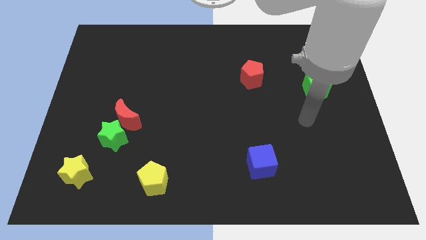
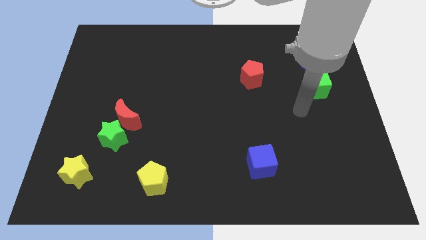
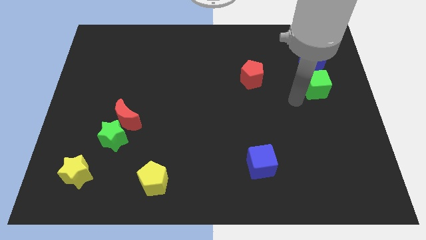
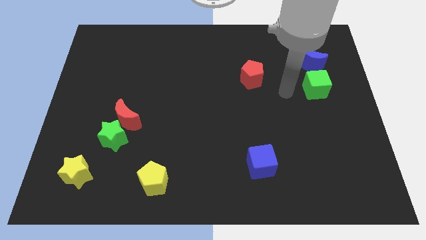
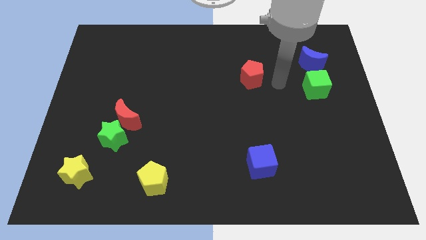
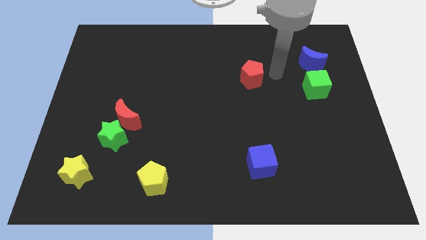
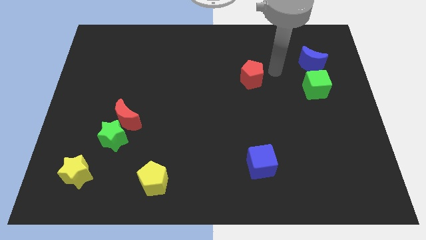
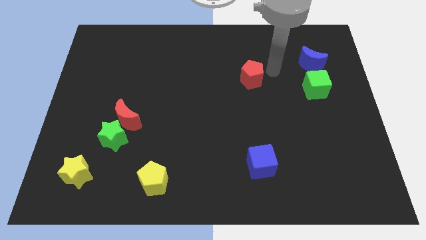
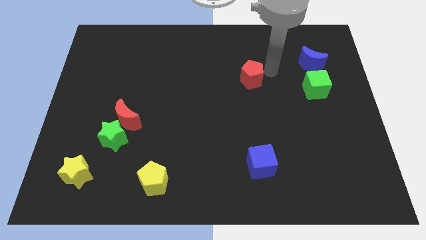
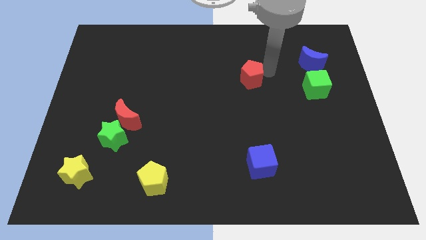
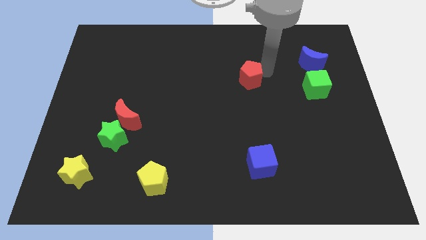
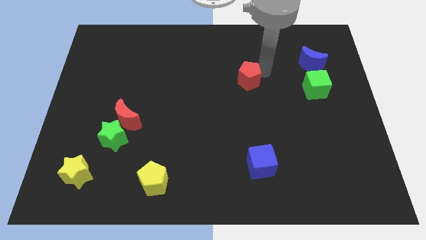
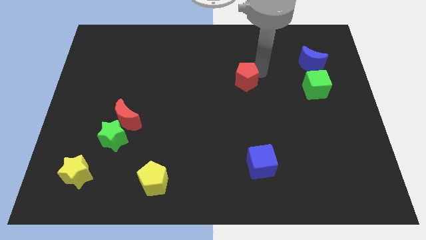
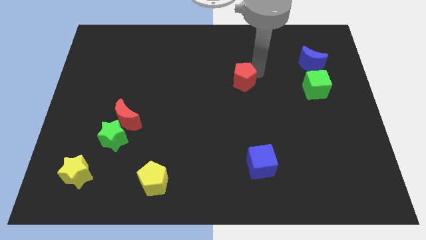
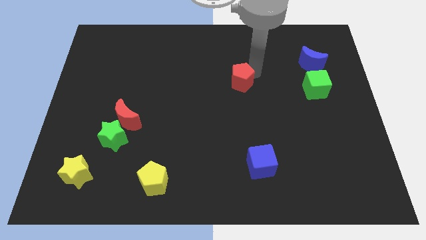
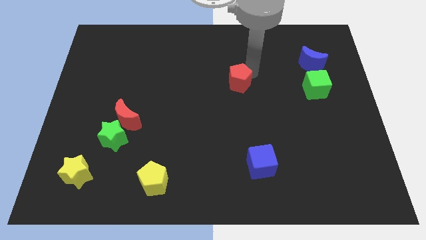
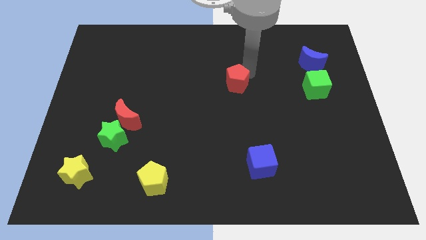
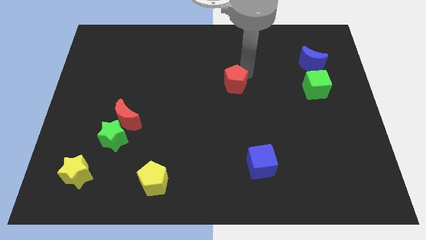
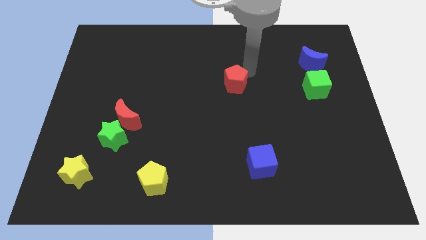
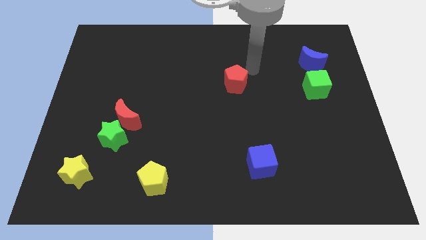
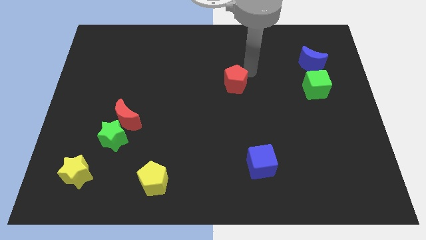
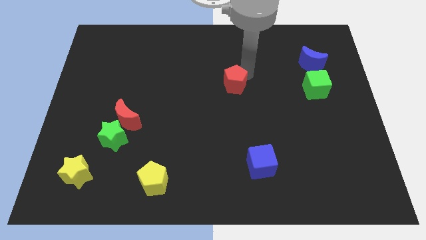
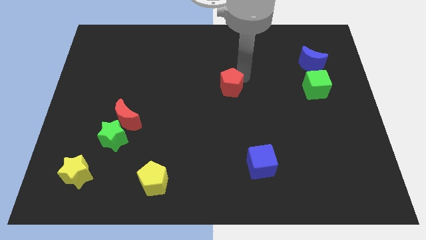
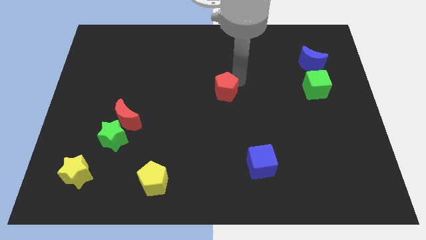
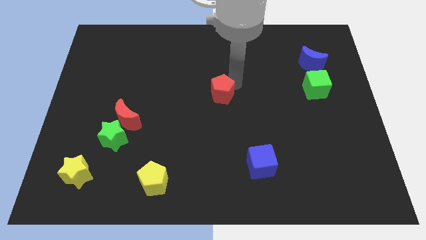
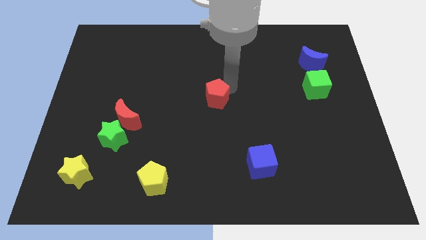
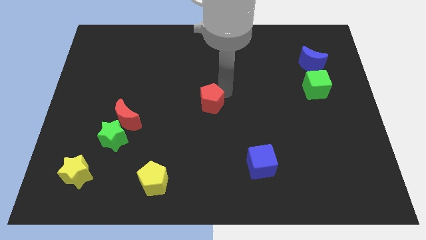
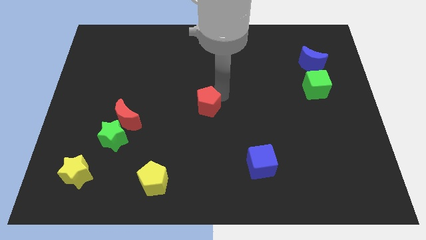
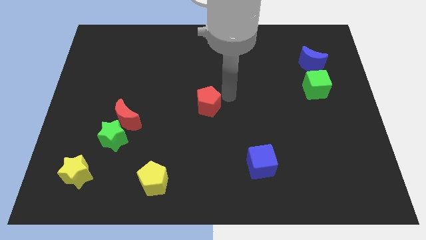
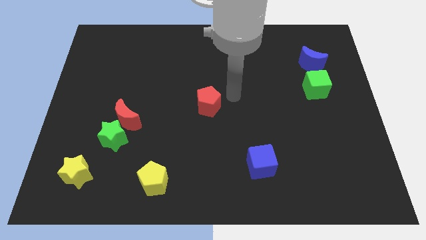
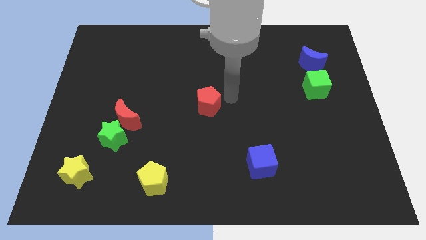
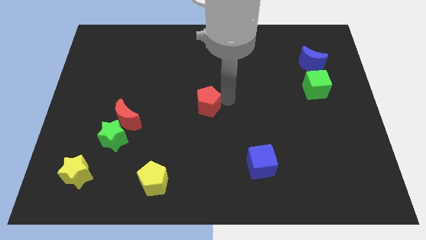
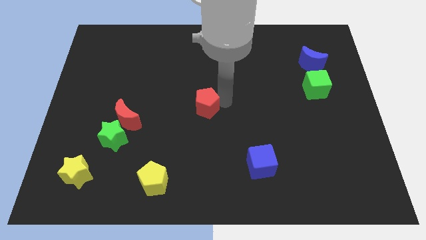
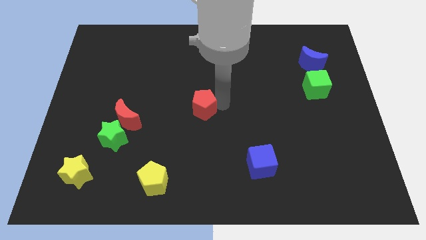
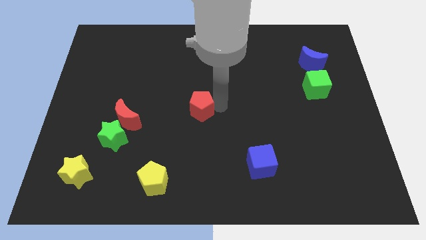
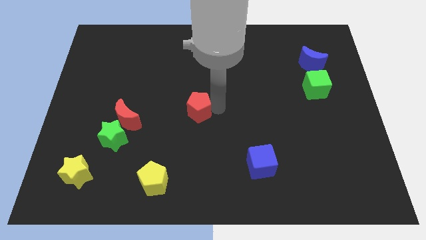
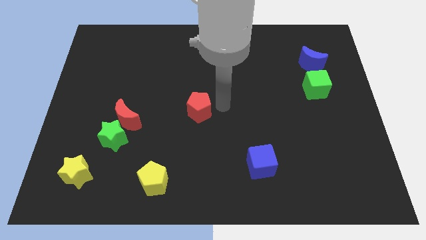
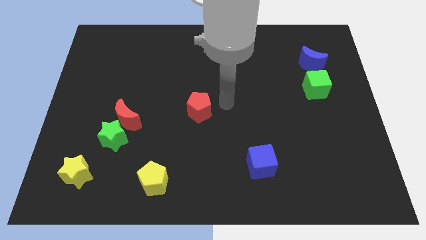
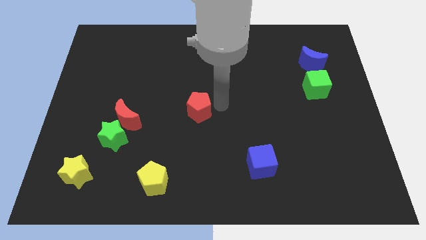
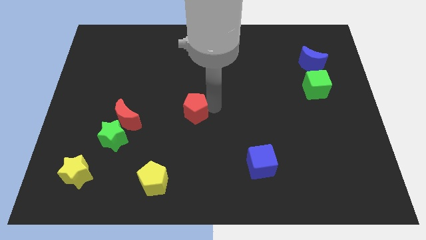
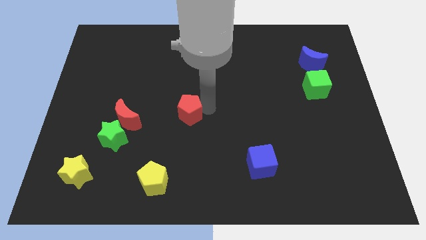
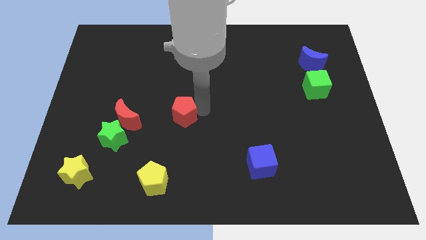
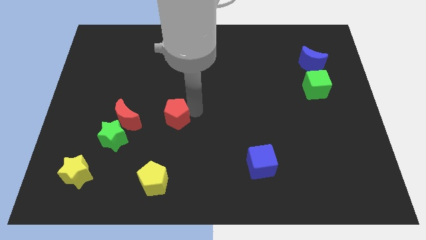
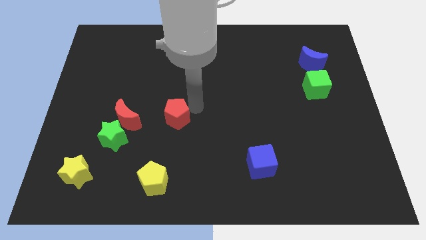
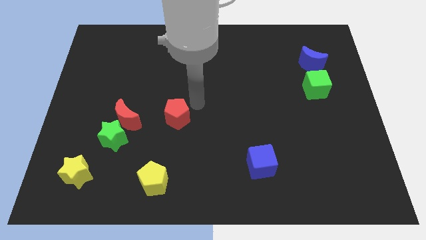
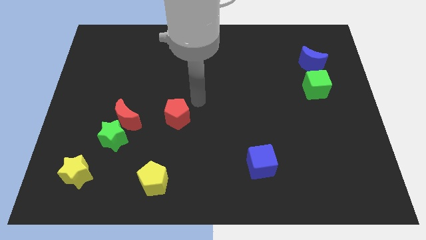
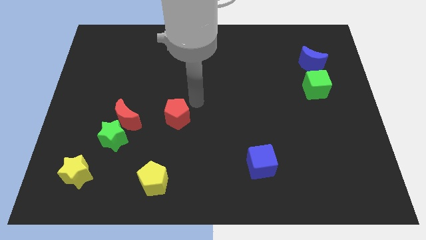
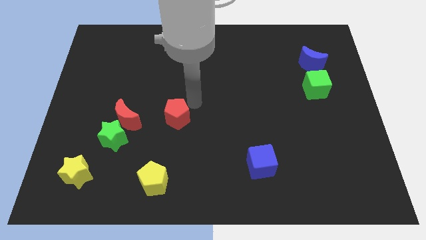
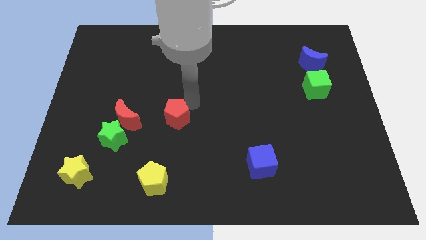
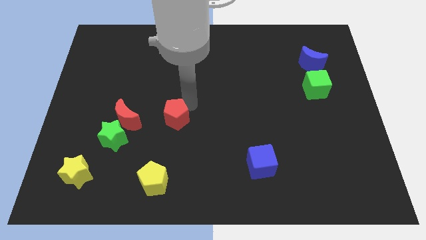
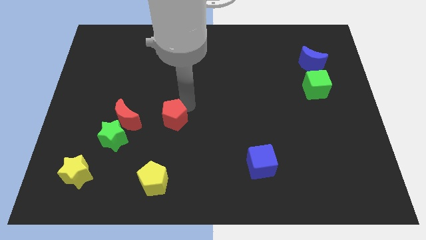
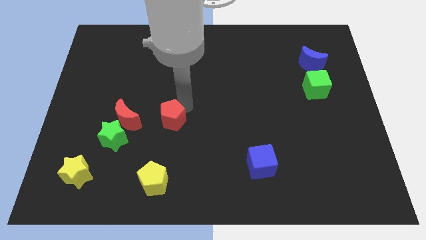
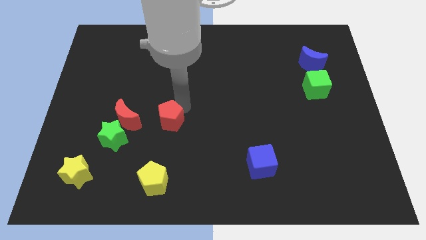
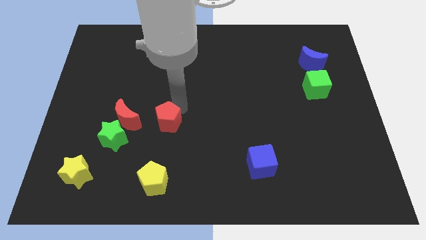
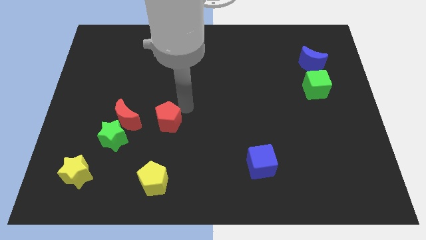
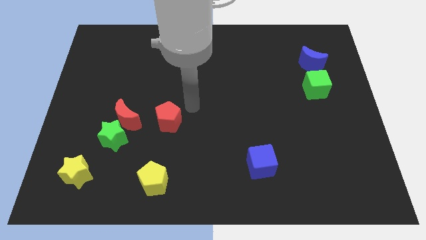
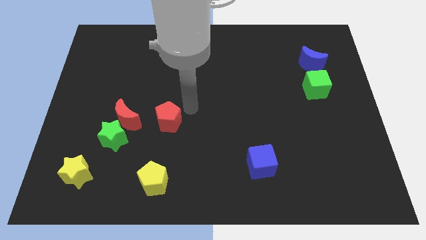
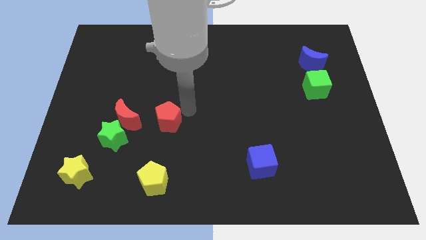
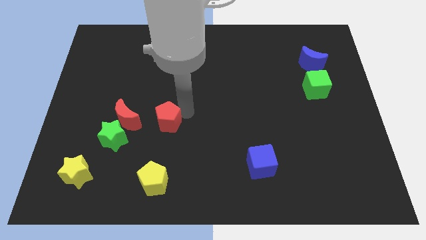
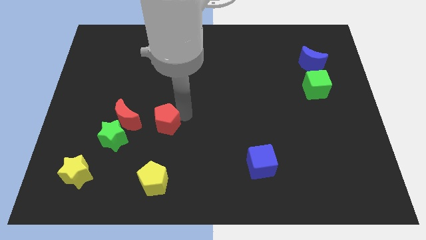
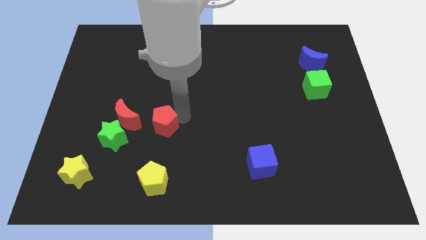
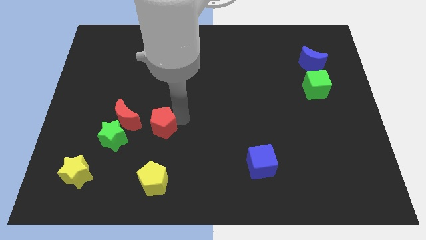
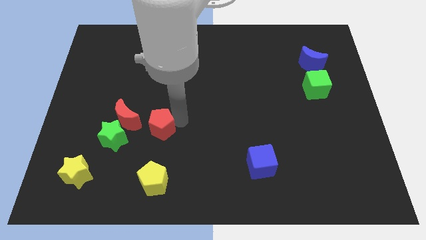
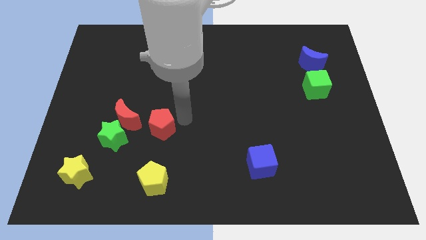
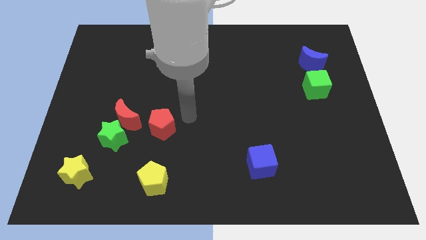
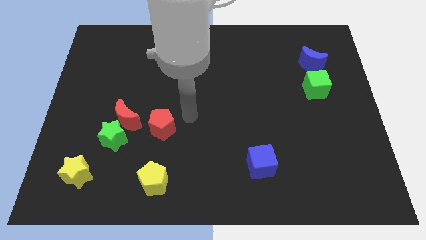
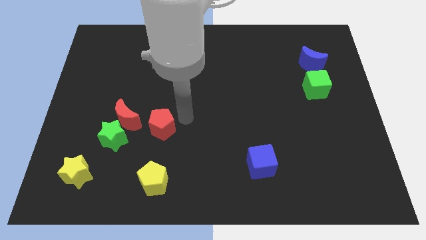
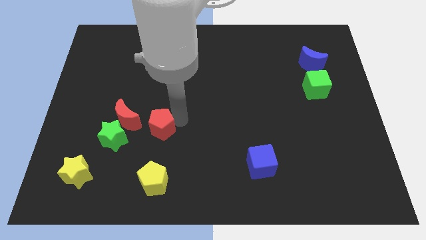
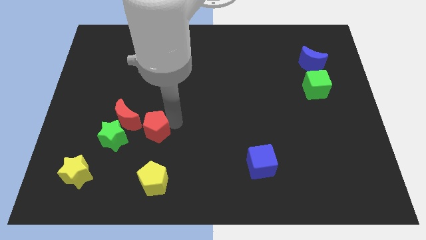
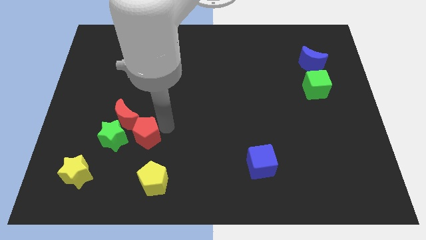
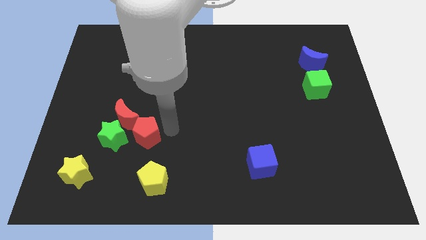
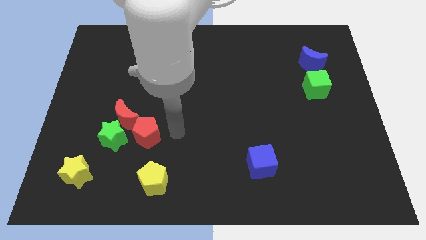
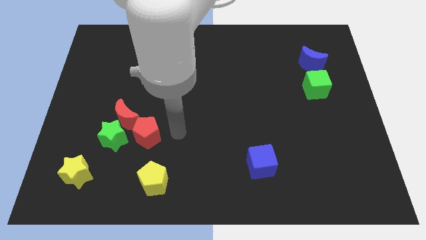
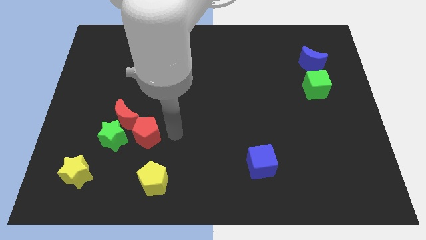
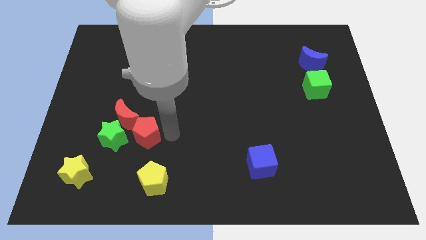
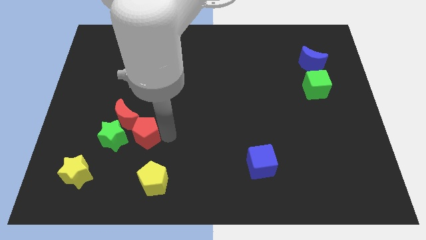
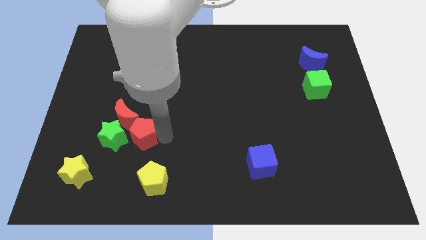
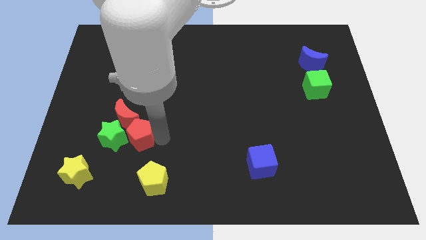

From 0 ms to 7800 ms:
move the red pentagon towards the green star
